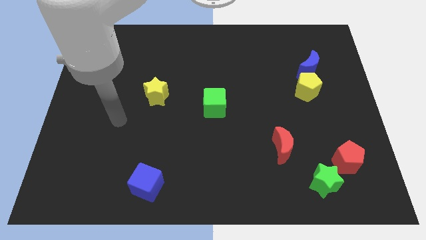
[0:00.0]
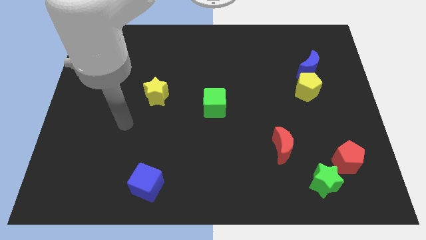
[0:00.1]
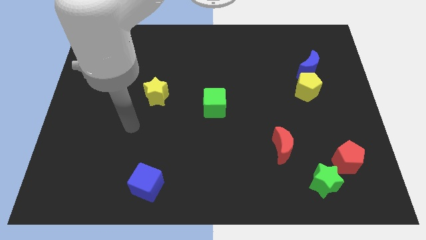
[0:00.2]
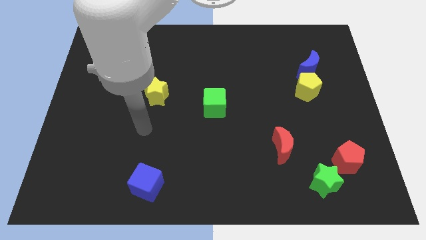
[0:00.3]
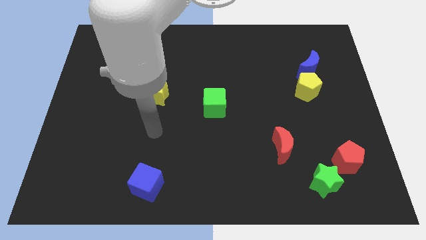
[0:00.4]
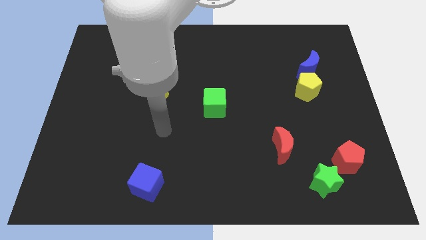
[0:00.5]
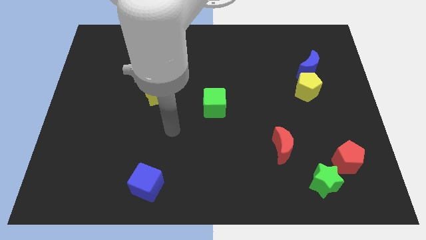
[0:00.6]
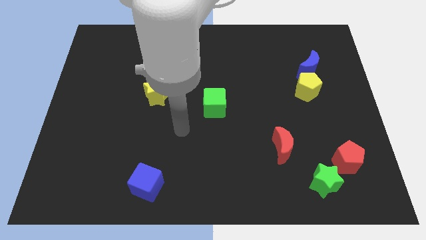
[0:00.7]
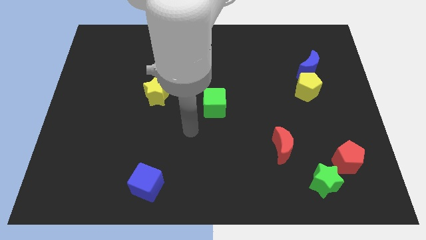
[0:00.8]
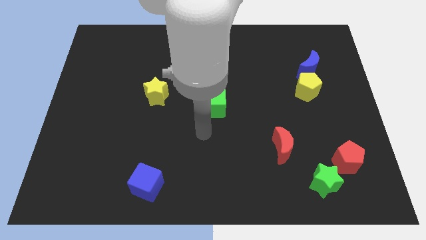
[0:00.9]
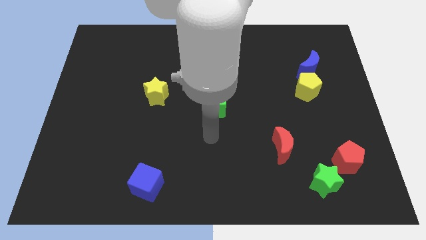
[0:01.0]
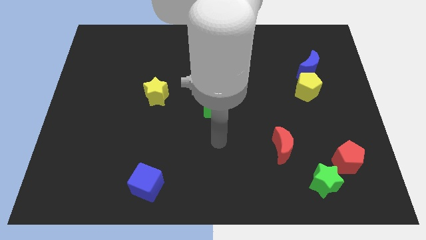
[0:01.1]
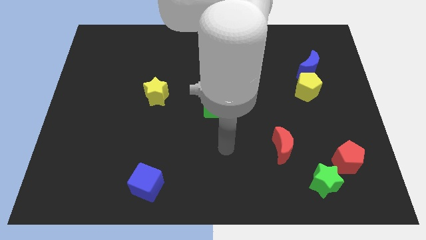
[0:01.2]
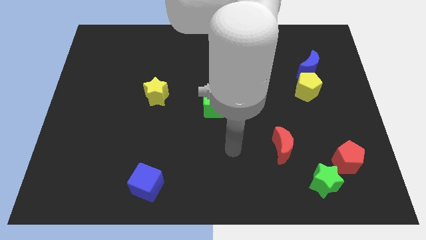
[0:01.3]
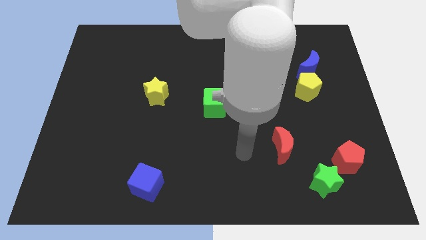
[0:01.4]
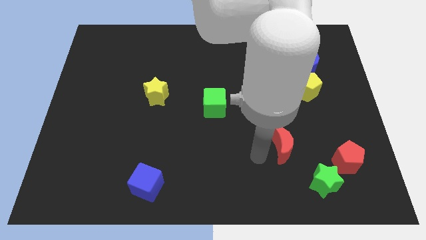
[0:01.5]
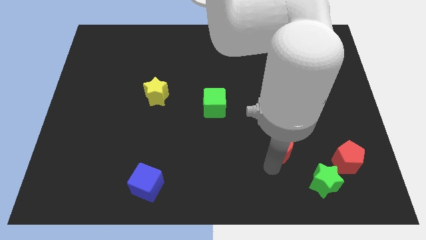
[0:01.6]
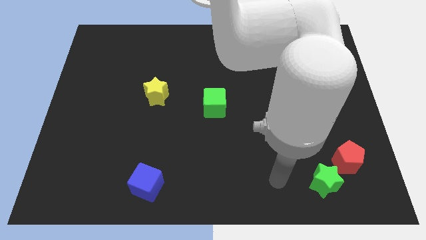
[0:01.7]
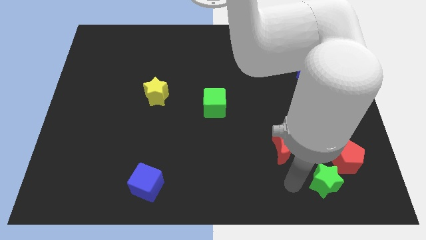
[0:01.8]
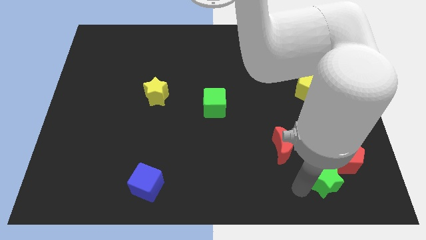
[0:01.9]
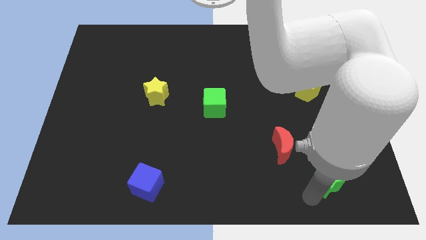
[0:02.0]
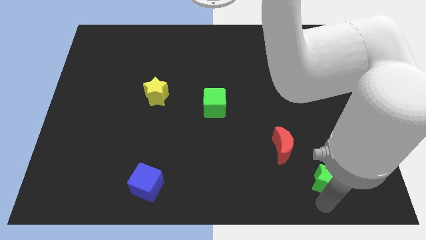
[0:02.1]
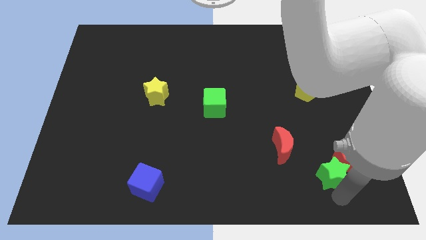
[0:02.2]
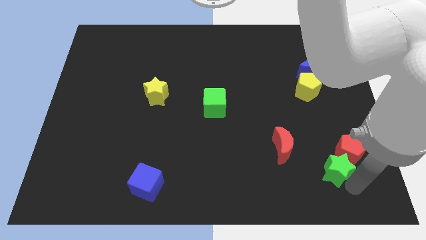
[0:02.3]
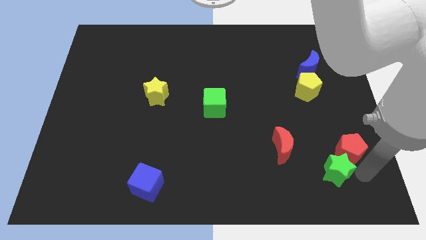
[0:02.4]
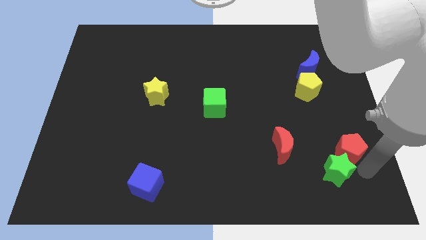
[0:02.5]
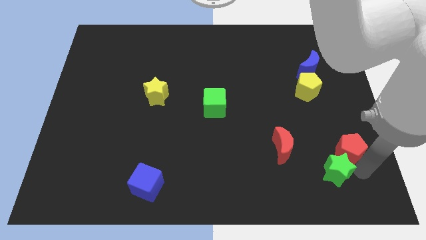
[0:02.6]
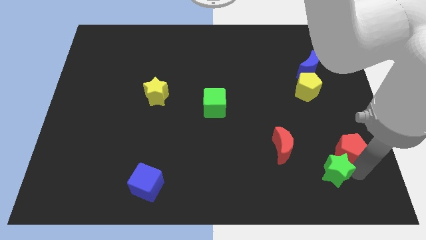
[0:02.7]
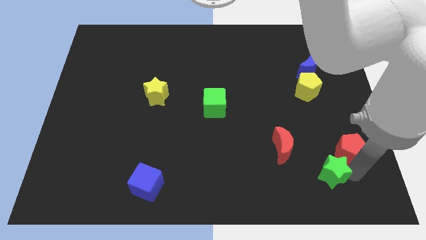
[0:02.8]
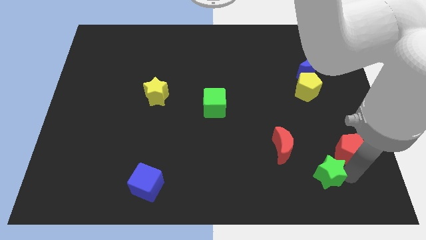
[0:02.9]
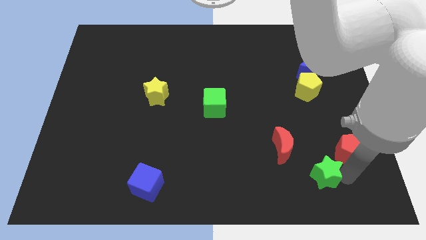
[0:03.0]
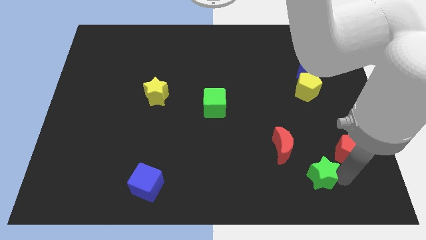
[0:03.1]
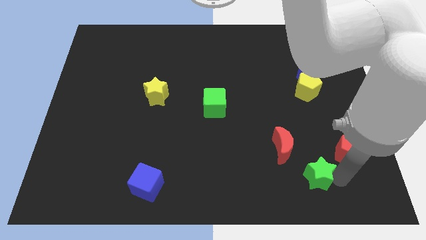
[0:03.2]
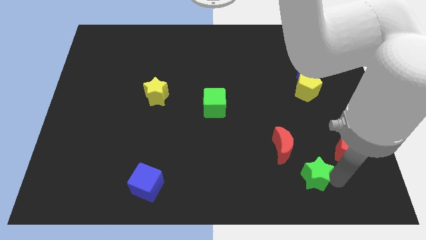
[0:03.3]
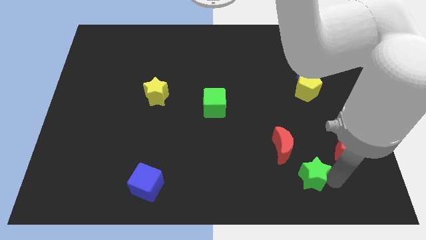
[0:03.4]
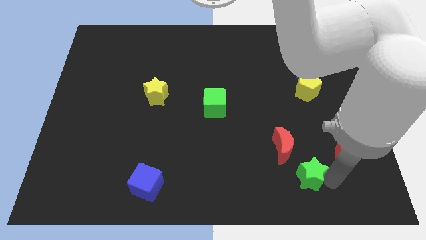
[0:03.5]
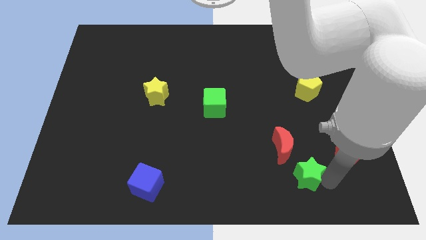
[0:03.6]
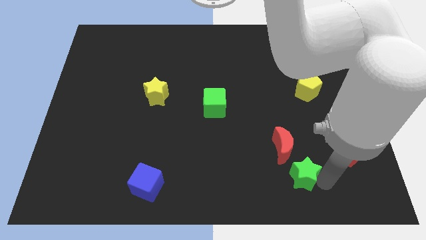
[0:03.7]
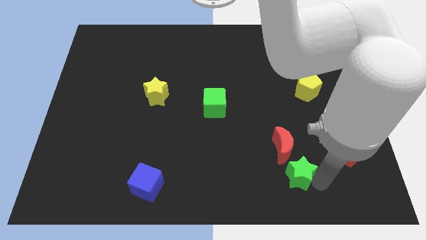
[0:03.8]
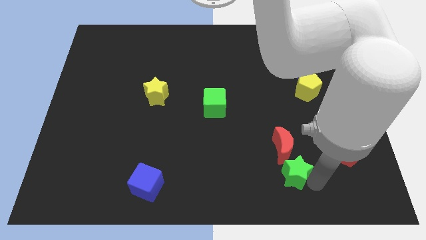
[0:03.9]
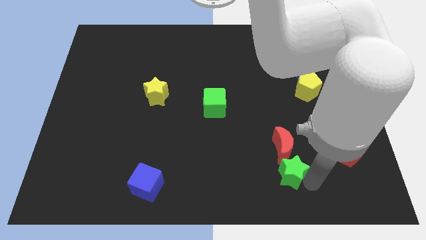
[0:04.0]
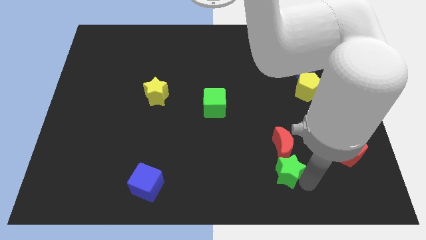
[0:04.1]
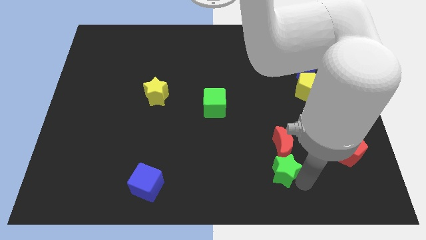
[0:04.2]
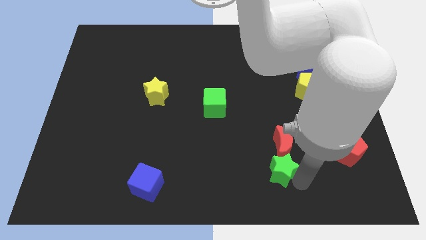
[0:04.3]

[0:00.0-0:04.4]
slide the green star upwards and left diagonally somewhat

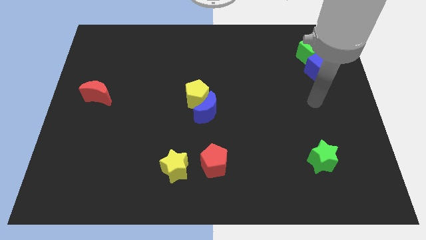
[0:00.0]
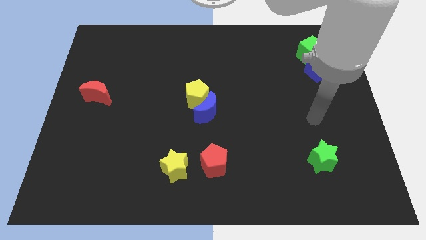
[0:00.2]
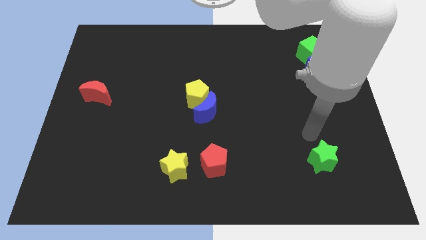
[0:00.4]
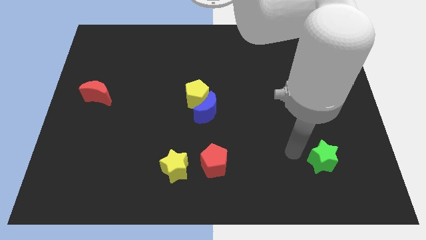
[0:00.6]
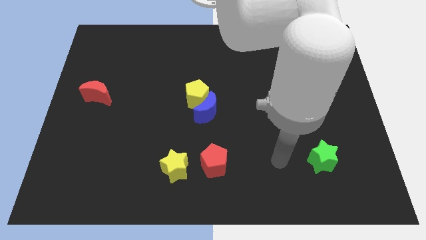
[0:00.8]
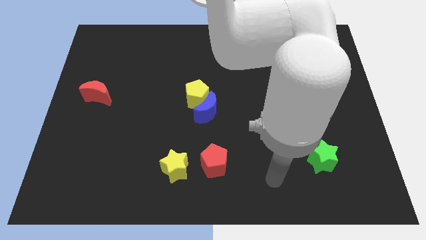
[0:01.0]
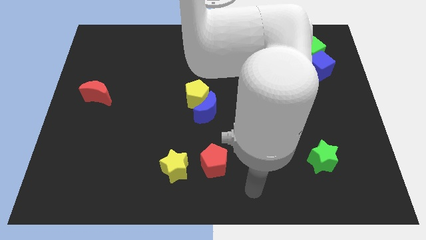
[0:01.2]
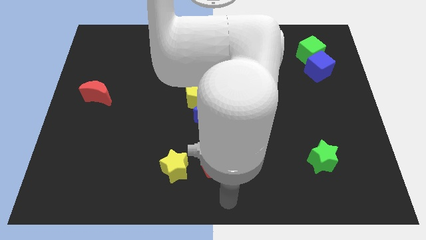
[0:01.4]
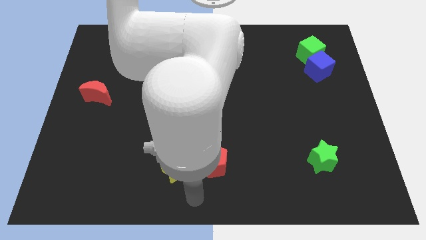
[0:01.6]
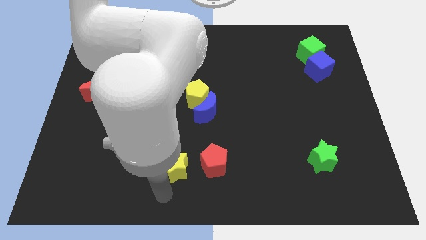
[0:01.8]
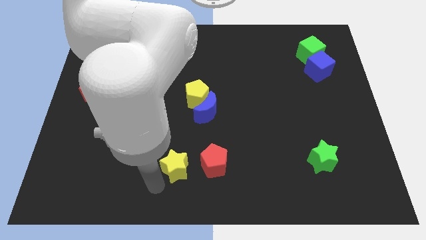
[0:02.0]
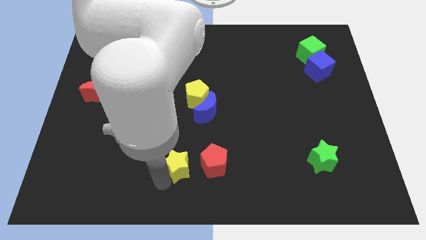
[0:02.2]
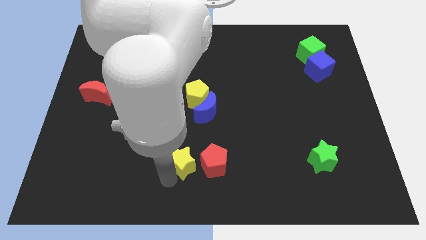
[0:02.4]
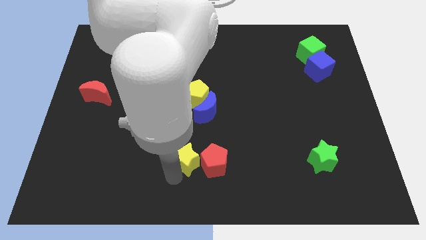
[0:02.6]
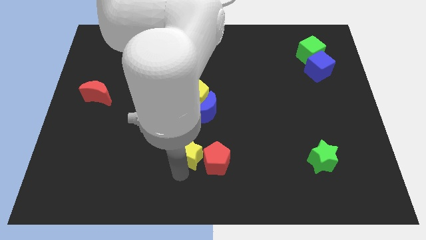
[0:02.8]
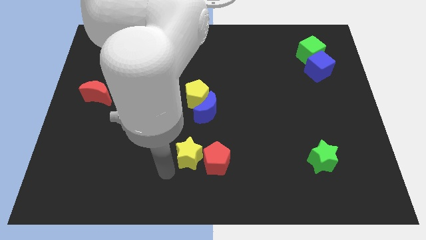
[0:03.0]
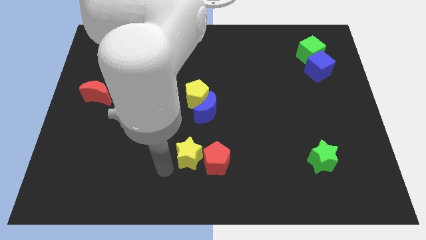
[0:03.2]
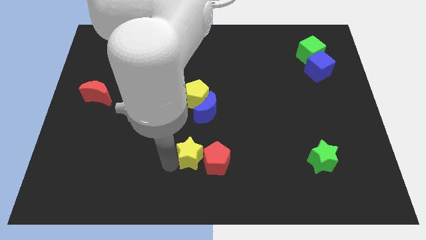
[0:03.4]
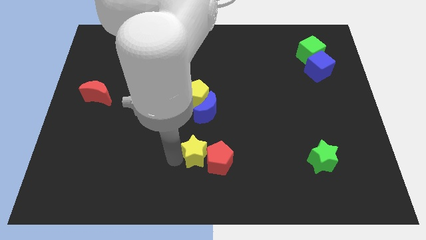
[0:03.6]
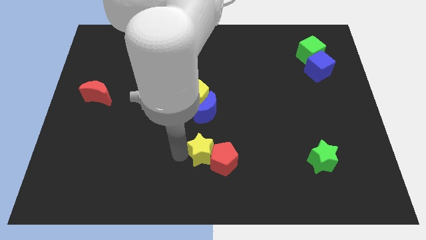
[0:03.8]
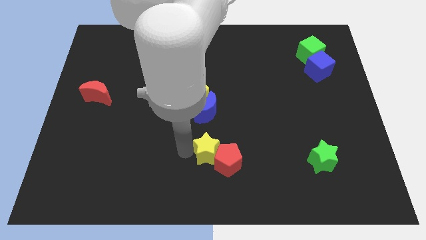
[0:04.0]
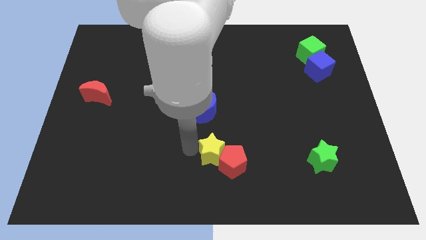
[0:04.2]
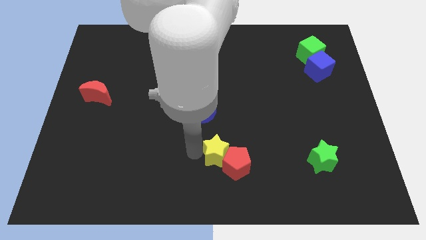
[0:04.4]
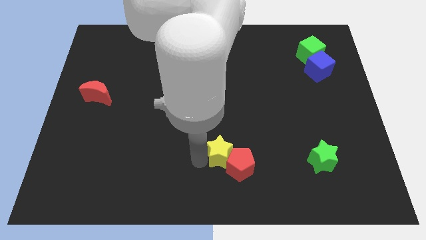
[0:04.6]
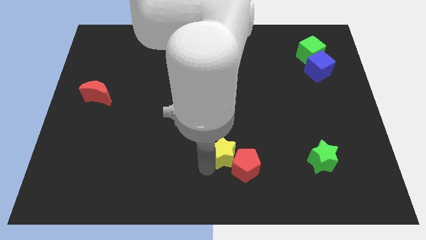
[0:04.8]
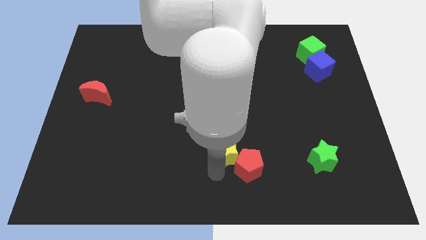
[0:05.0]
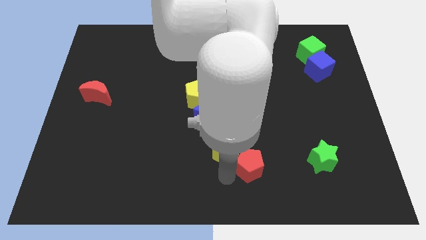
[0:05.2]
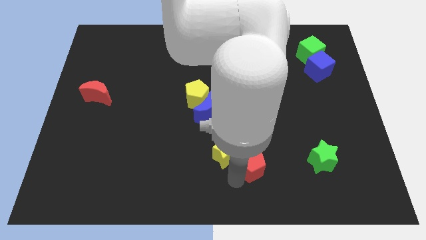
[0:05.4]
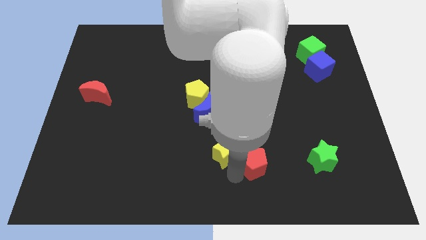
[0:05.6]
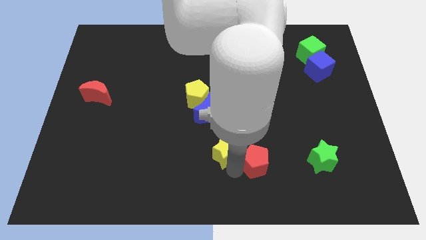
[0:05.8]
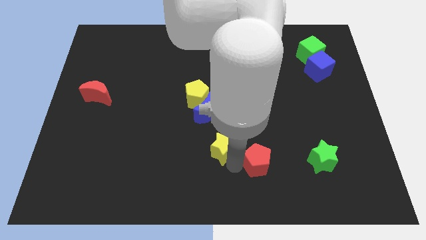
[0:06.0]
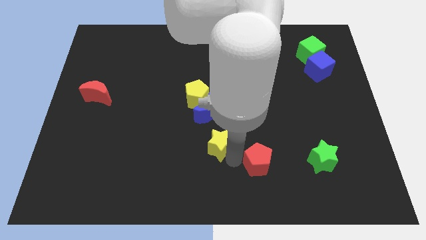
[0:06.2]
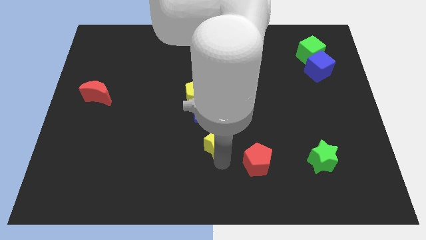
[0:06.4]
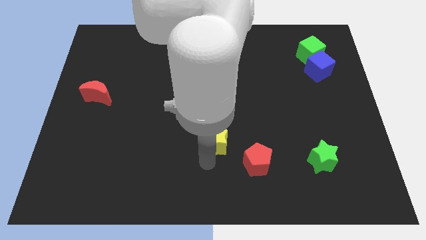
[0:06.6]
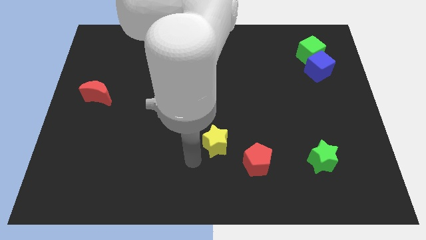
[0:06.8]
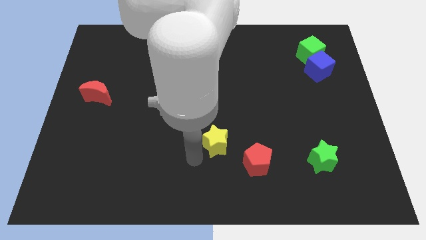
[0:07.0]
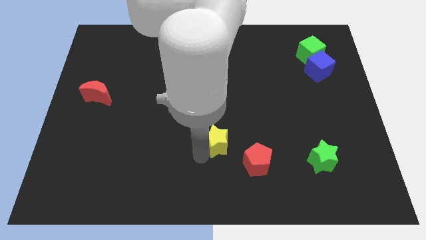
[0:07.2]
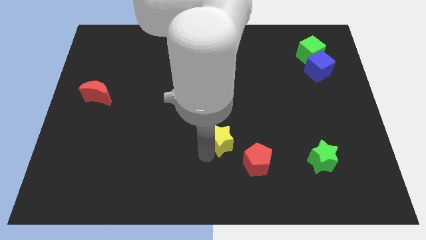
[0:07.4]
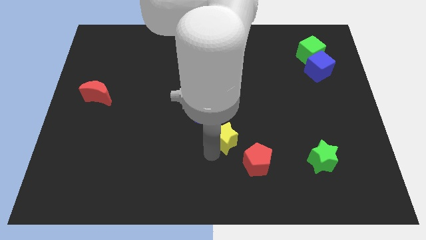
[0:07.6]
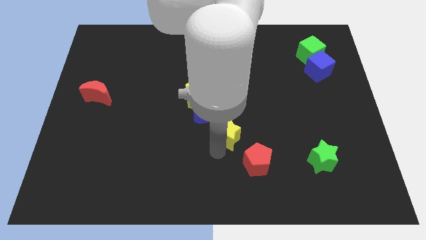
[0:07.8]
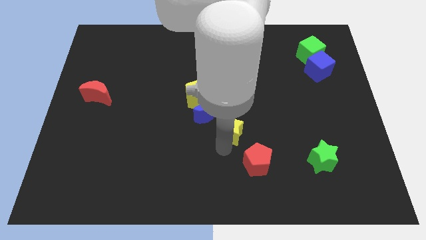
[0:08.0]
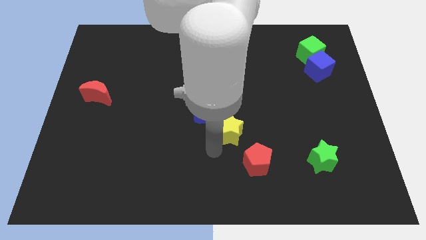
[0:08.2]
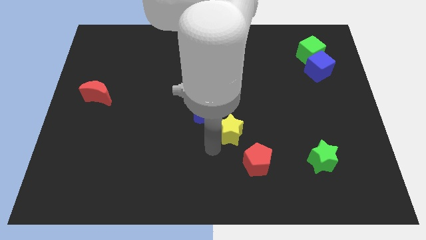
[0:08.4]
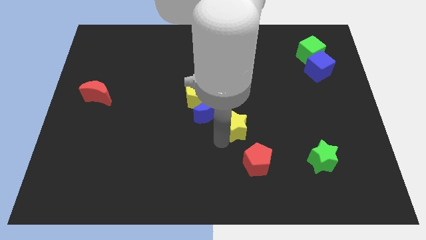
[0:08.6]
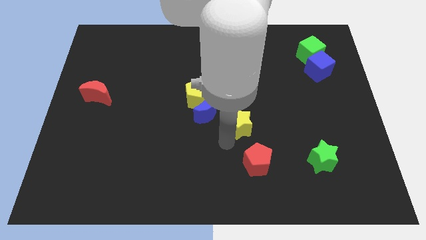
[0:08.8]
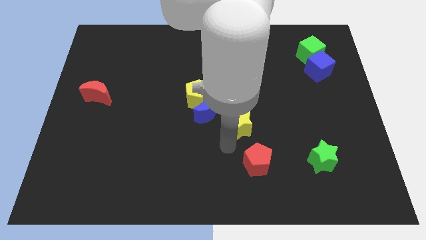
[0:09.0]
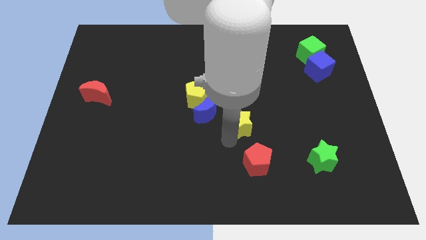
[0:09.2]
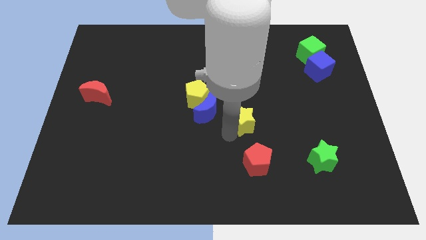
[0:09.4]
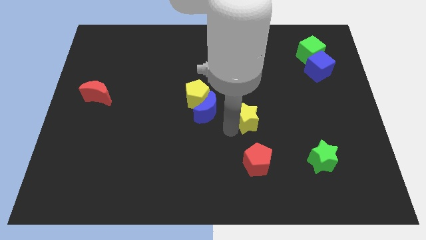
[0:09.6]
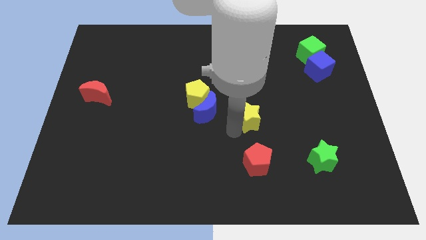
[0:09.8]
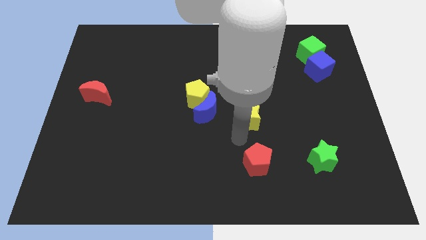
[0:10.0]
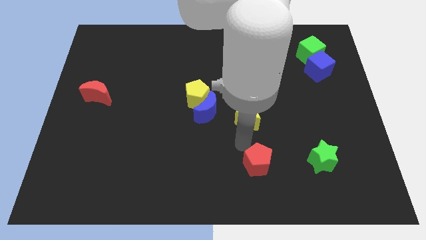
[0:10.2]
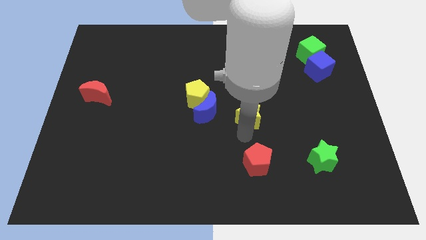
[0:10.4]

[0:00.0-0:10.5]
push the yellow star upwards and right diagonally
